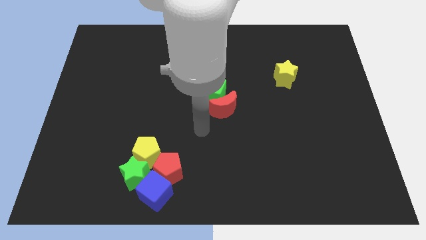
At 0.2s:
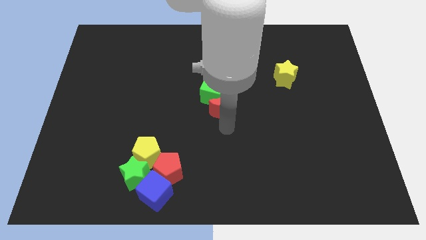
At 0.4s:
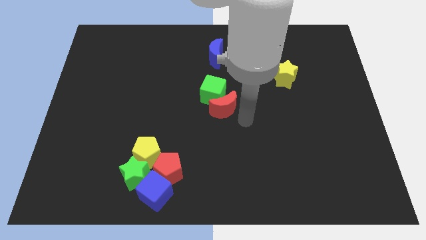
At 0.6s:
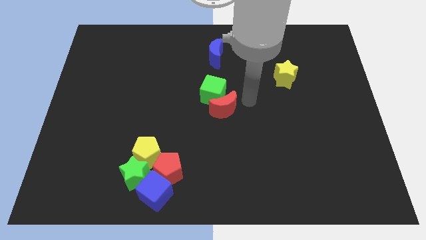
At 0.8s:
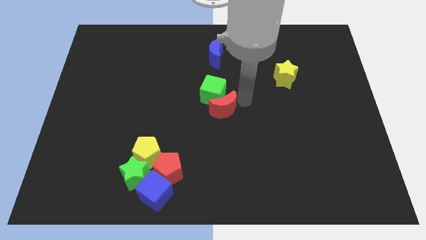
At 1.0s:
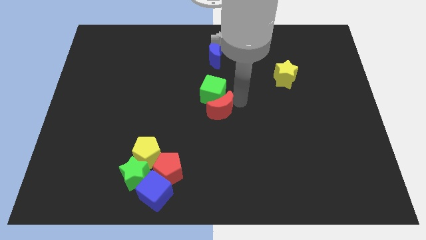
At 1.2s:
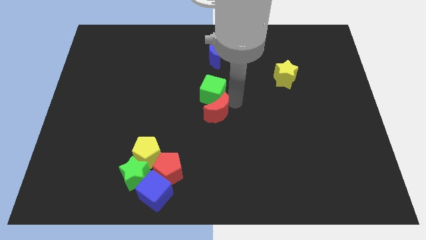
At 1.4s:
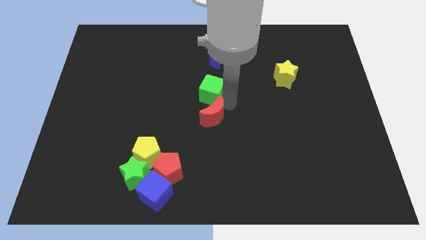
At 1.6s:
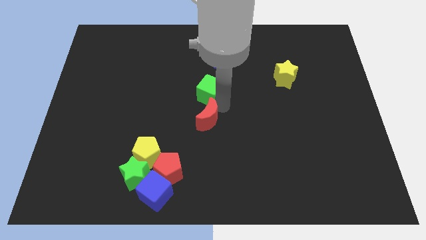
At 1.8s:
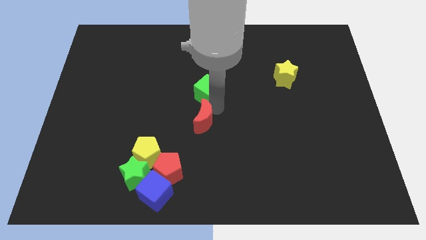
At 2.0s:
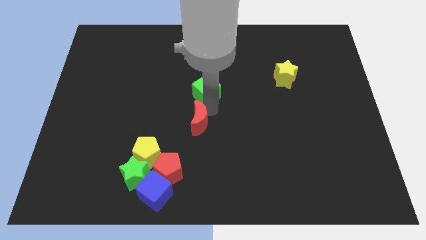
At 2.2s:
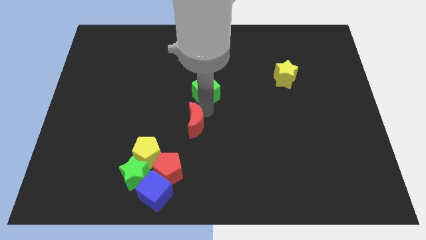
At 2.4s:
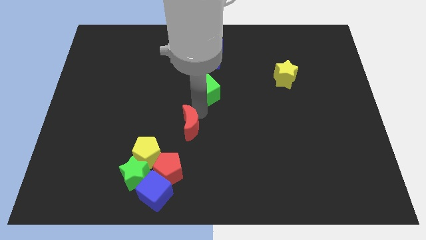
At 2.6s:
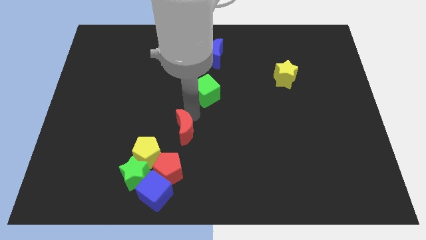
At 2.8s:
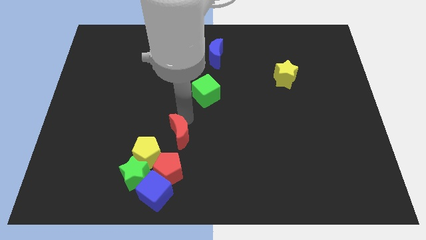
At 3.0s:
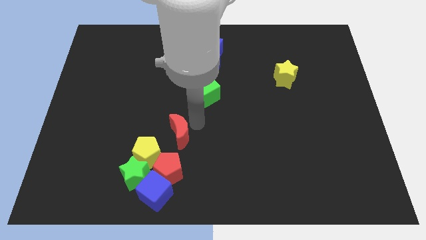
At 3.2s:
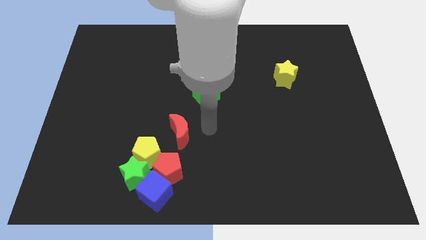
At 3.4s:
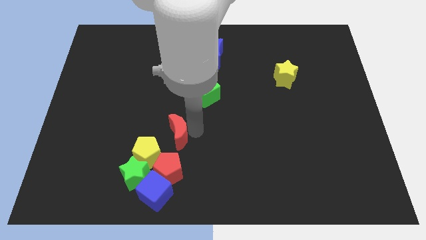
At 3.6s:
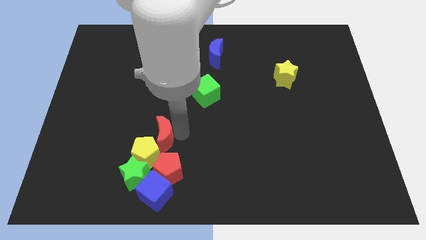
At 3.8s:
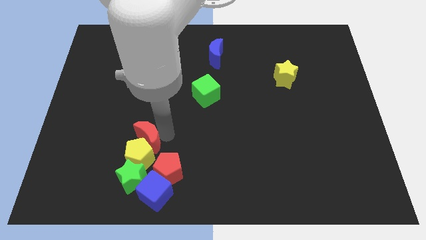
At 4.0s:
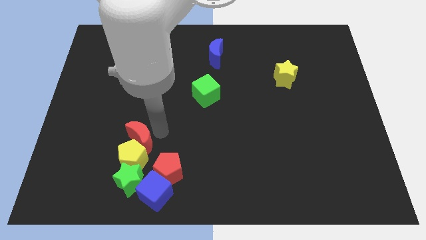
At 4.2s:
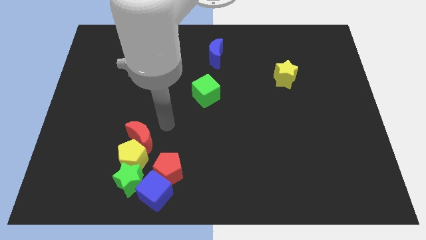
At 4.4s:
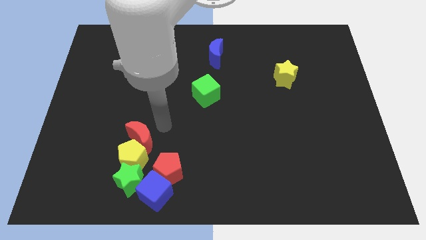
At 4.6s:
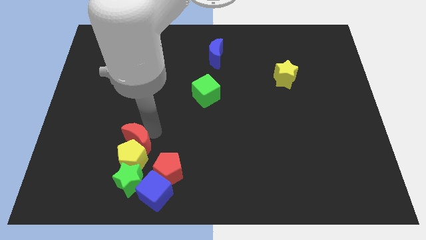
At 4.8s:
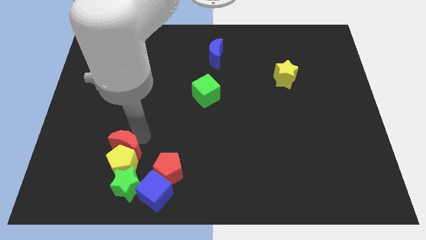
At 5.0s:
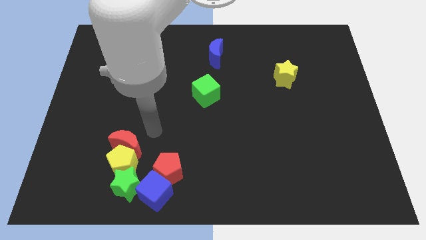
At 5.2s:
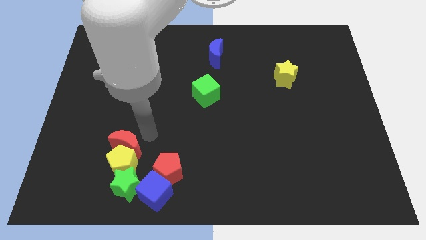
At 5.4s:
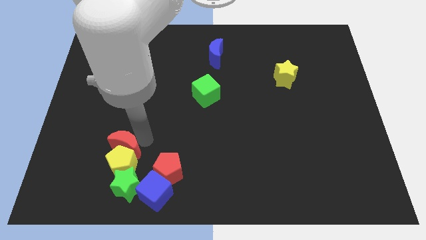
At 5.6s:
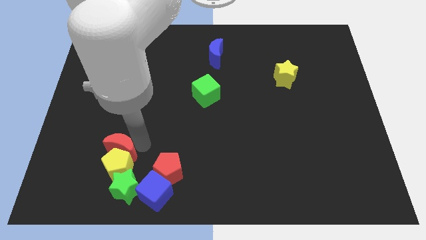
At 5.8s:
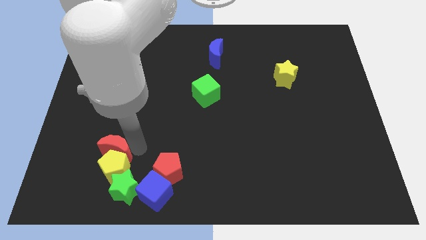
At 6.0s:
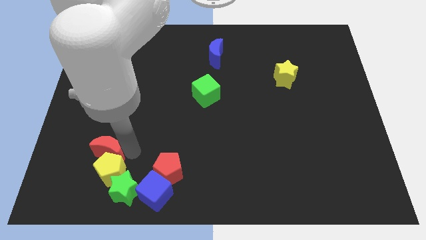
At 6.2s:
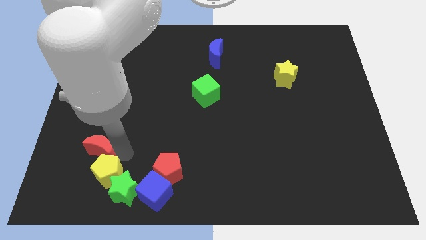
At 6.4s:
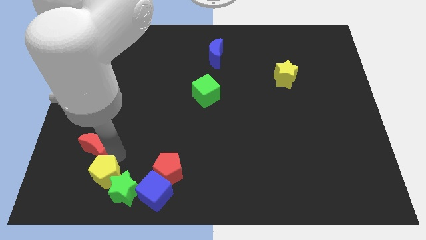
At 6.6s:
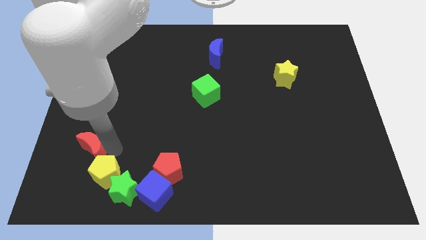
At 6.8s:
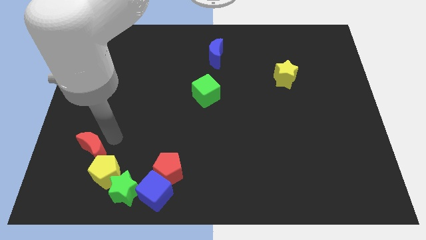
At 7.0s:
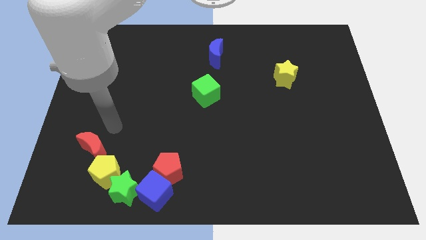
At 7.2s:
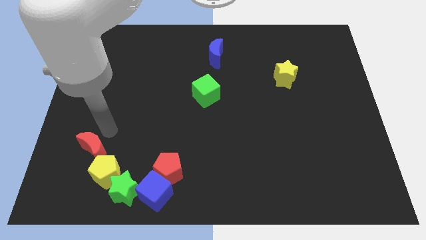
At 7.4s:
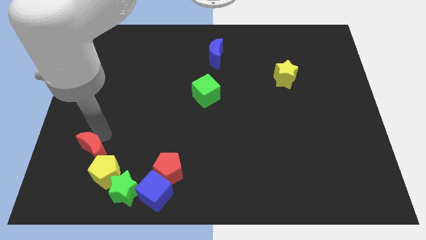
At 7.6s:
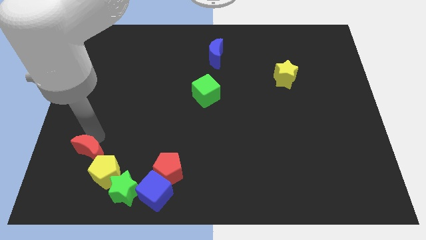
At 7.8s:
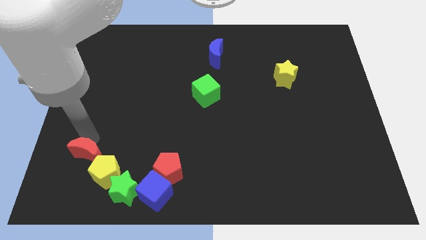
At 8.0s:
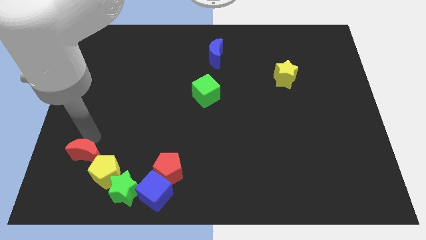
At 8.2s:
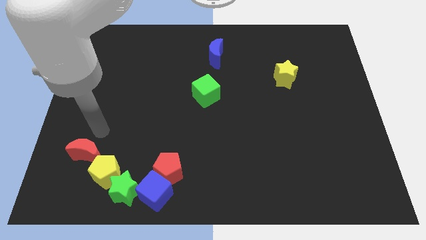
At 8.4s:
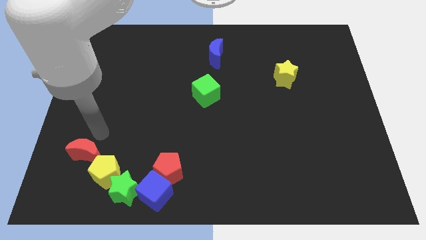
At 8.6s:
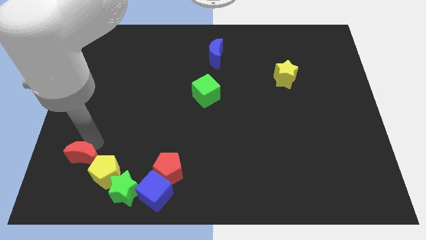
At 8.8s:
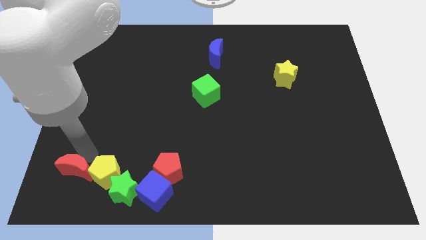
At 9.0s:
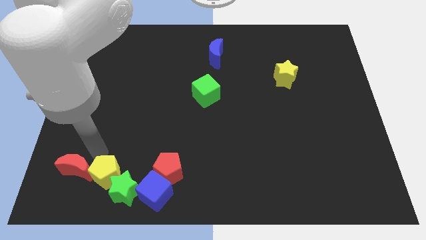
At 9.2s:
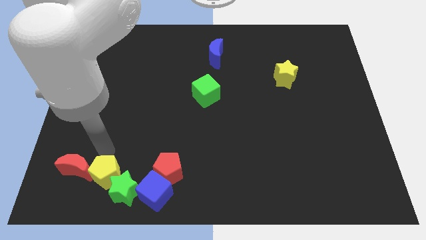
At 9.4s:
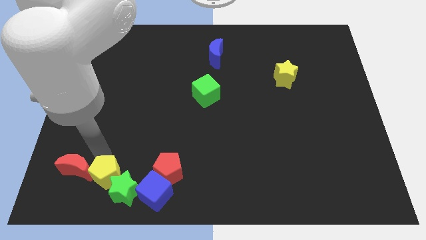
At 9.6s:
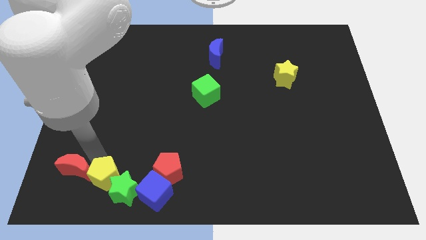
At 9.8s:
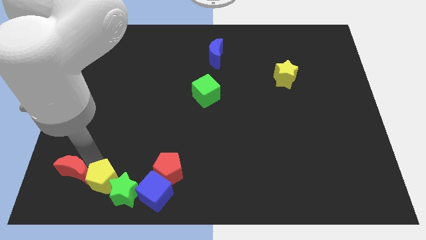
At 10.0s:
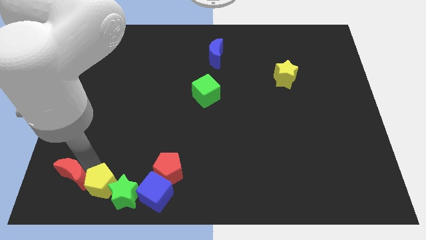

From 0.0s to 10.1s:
move the red moon to the bottom left

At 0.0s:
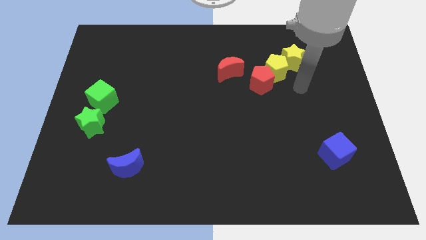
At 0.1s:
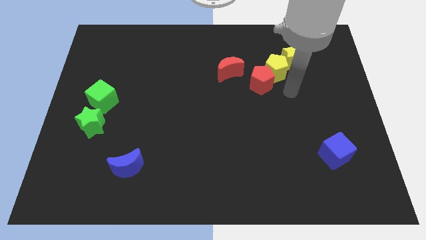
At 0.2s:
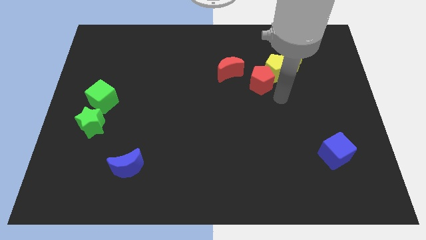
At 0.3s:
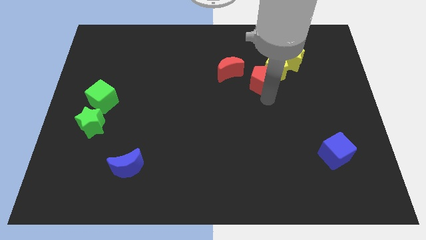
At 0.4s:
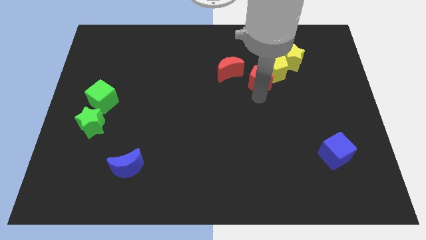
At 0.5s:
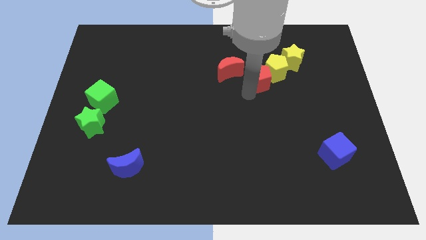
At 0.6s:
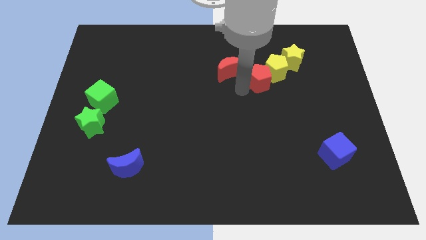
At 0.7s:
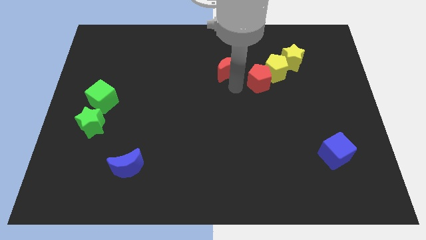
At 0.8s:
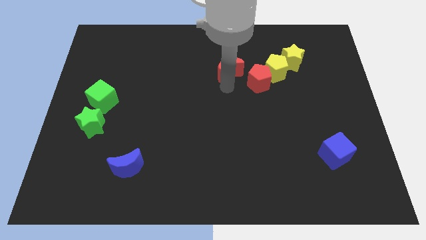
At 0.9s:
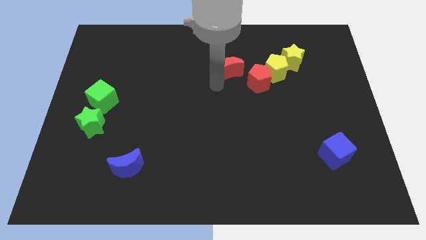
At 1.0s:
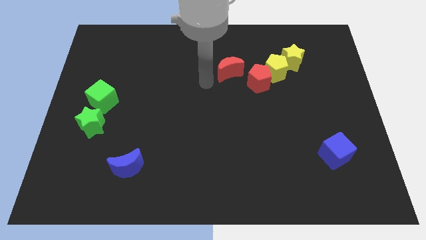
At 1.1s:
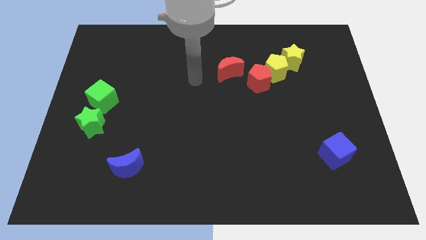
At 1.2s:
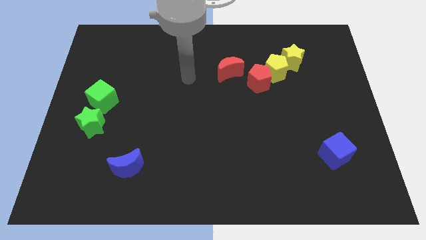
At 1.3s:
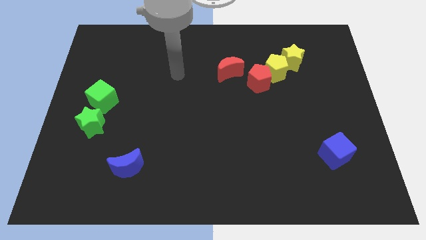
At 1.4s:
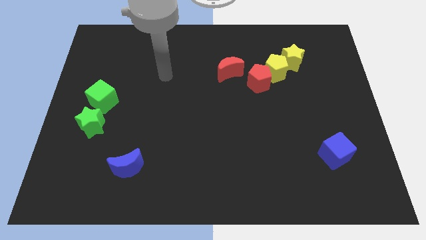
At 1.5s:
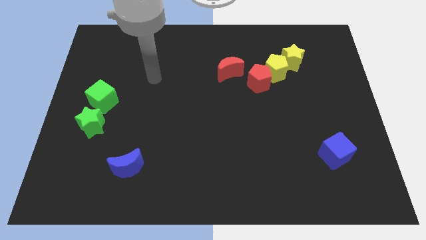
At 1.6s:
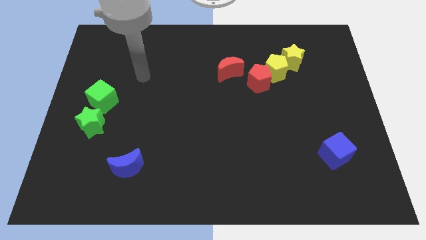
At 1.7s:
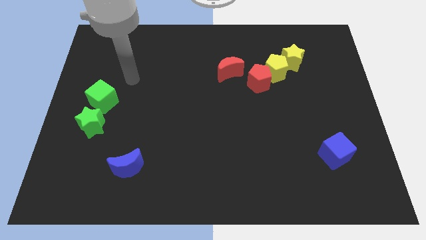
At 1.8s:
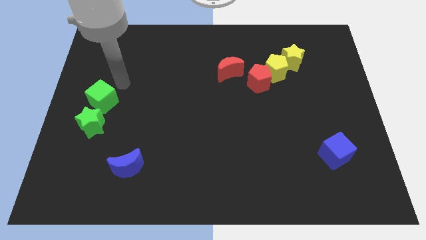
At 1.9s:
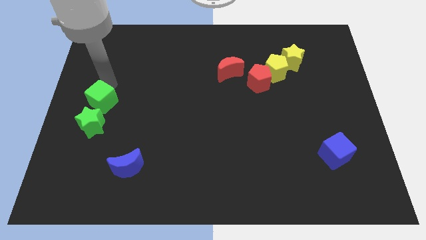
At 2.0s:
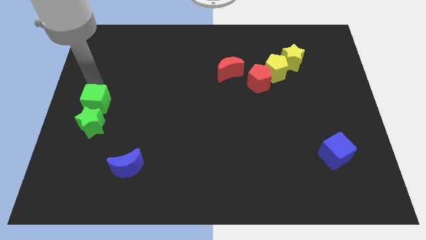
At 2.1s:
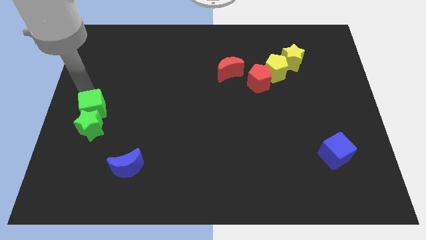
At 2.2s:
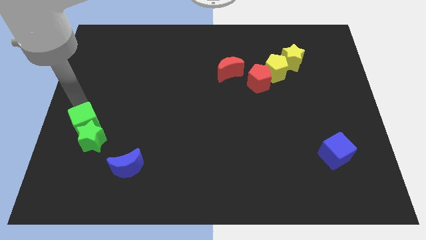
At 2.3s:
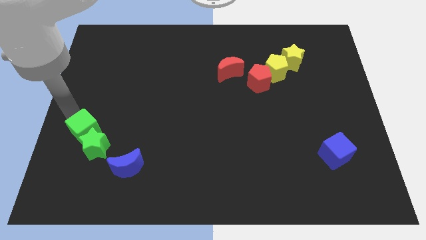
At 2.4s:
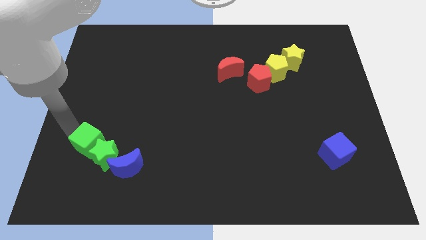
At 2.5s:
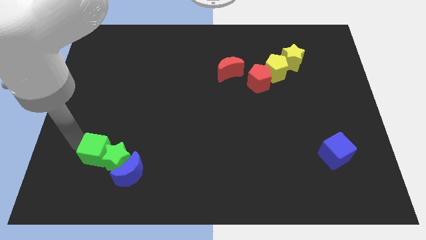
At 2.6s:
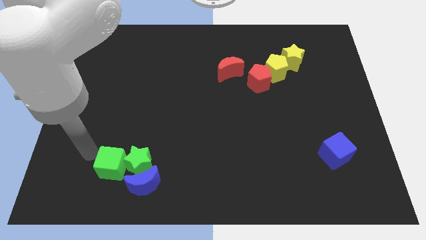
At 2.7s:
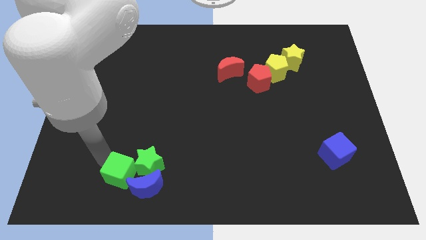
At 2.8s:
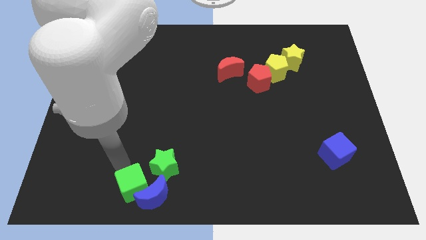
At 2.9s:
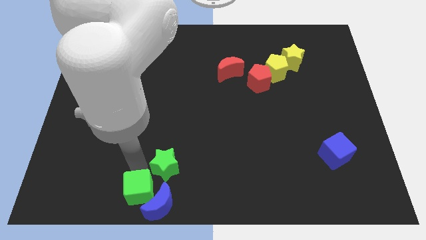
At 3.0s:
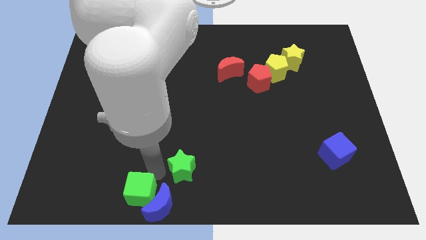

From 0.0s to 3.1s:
slide the green star to the bottom
